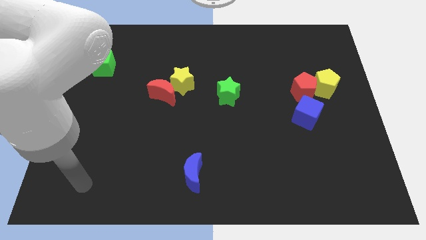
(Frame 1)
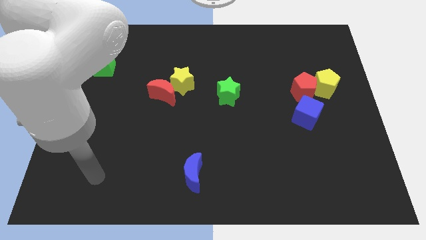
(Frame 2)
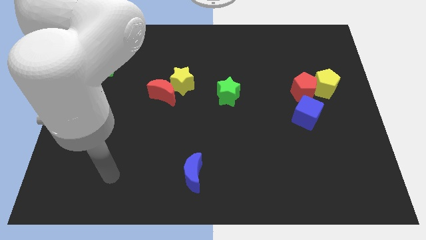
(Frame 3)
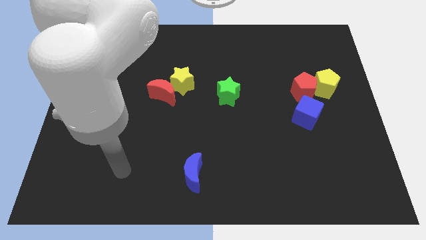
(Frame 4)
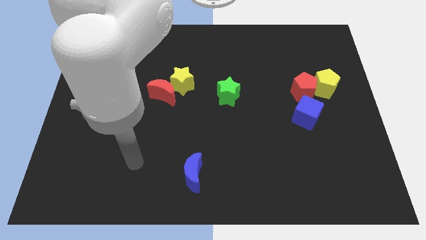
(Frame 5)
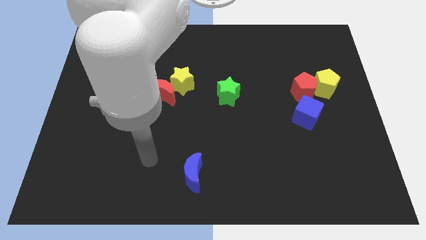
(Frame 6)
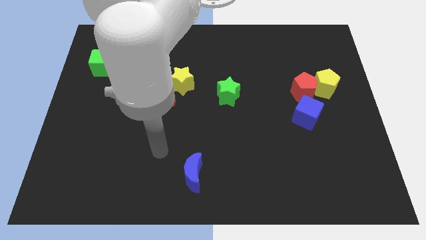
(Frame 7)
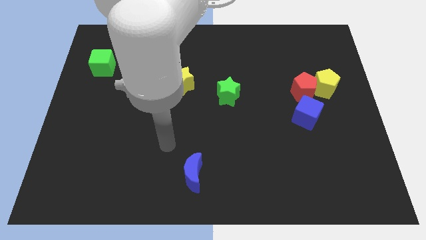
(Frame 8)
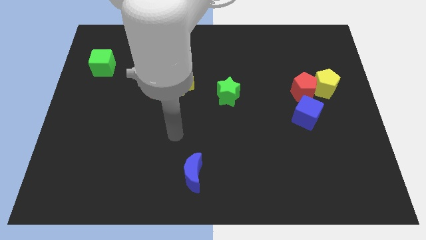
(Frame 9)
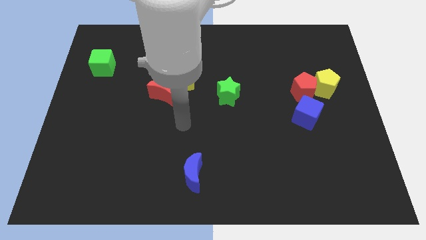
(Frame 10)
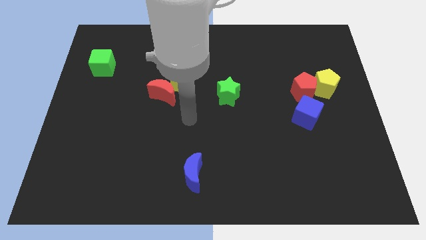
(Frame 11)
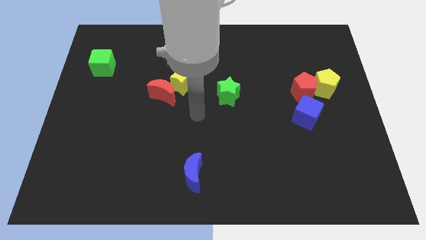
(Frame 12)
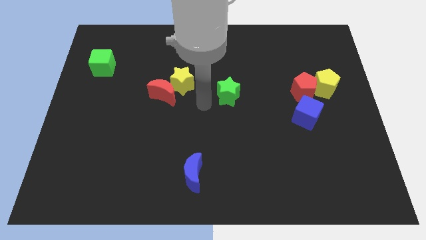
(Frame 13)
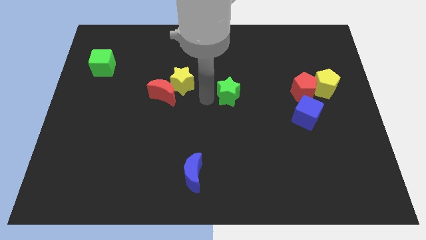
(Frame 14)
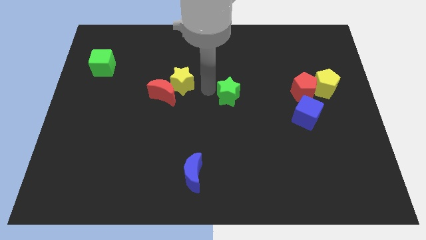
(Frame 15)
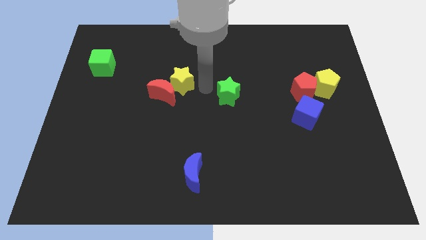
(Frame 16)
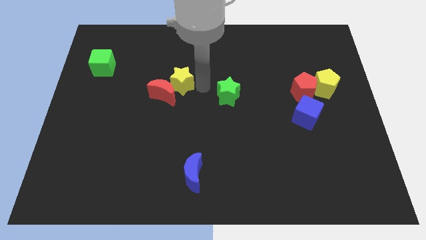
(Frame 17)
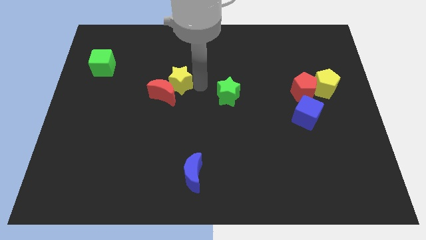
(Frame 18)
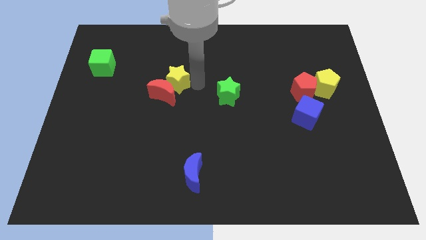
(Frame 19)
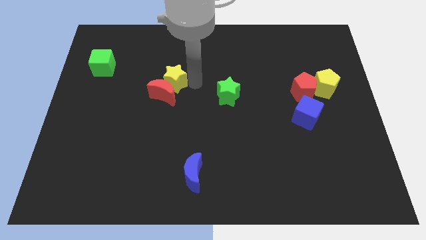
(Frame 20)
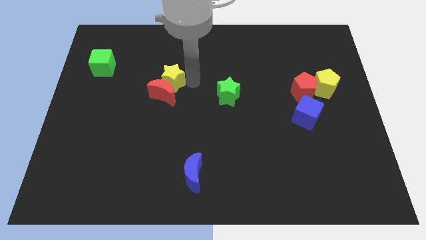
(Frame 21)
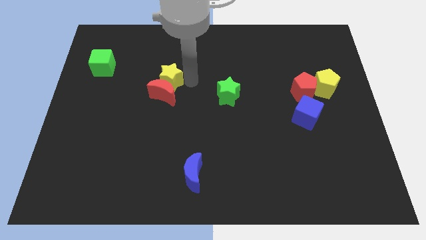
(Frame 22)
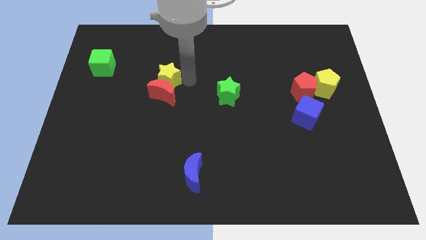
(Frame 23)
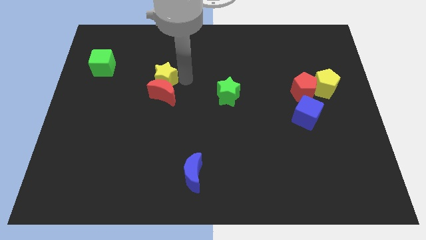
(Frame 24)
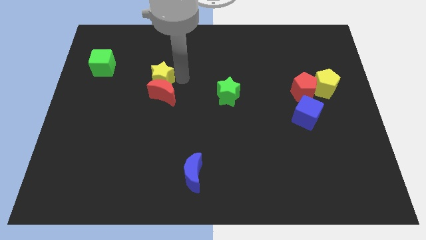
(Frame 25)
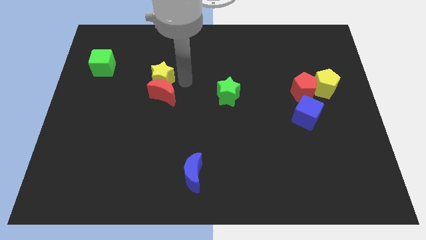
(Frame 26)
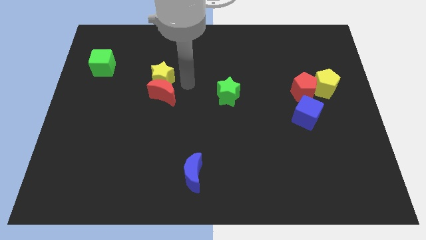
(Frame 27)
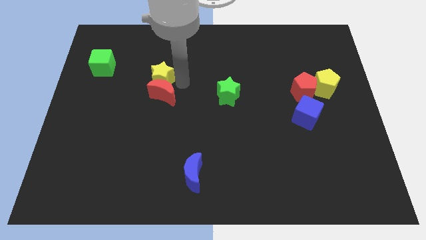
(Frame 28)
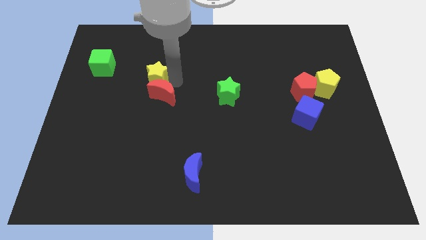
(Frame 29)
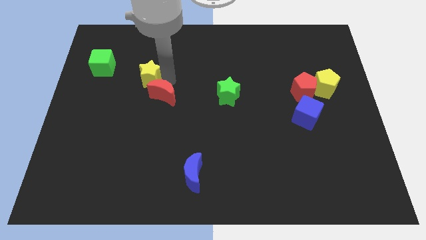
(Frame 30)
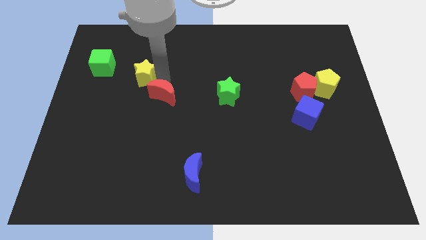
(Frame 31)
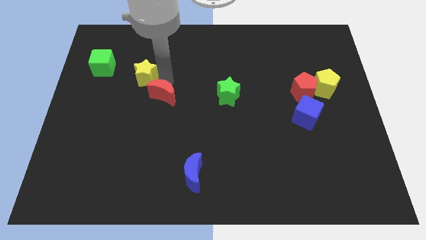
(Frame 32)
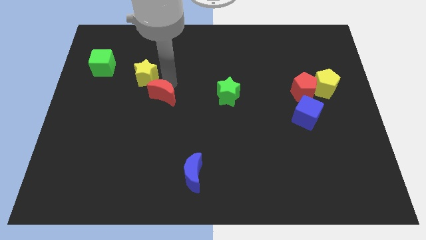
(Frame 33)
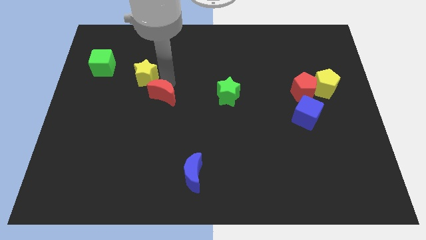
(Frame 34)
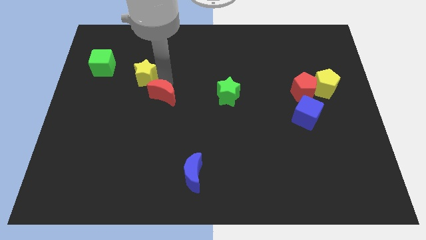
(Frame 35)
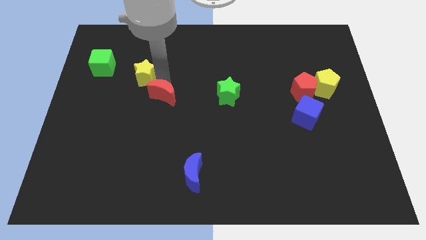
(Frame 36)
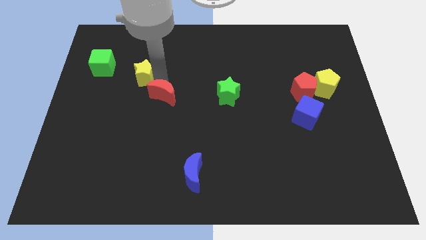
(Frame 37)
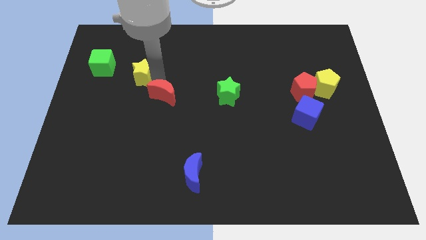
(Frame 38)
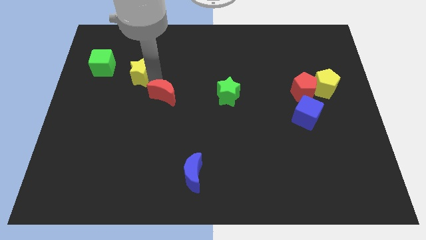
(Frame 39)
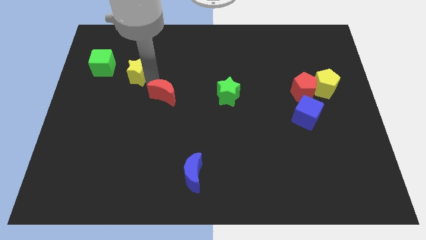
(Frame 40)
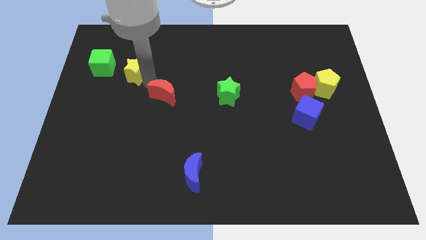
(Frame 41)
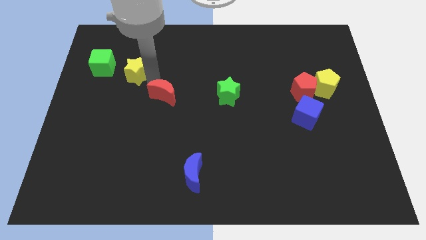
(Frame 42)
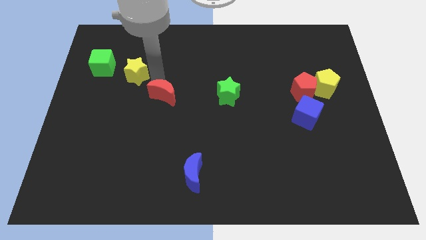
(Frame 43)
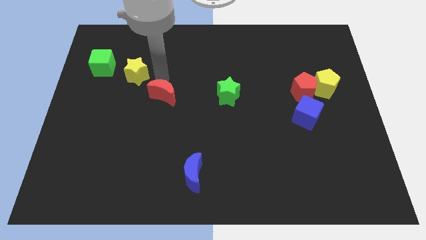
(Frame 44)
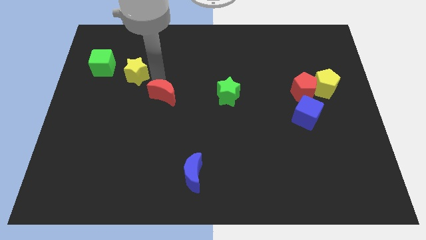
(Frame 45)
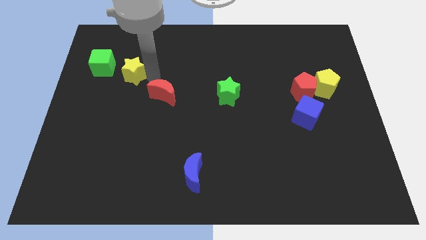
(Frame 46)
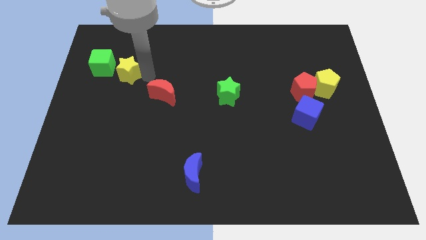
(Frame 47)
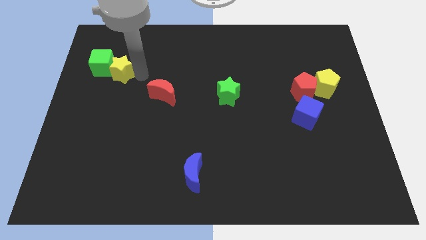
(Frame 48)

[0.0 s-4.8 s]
put the yellow star towards the green cube

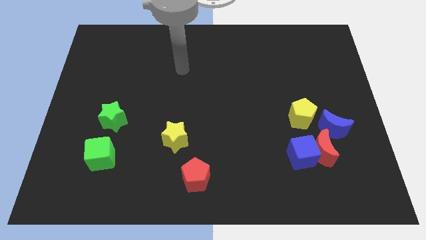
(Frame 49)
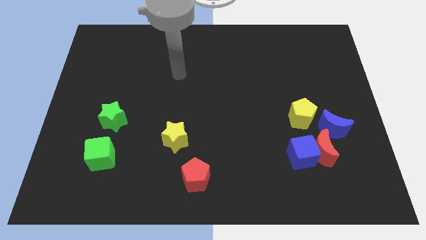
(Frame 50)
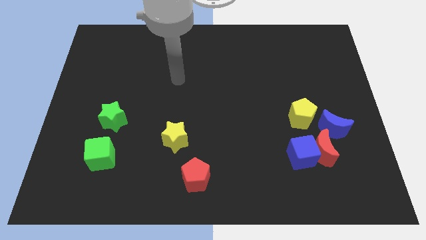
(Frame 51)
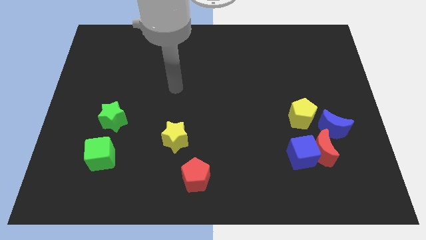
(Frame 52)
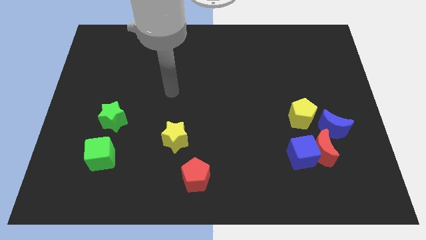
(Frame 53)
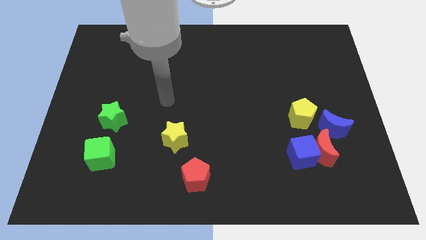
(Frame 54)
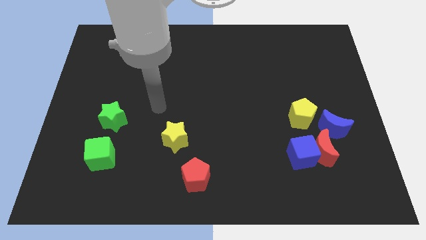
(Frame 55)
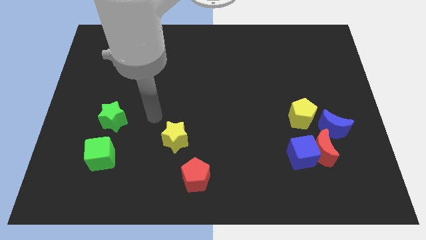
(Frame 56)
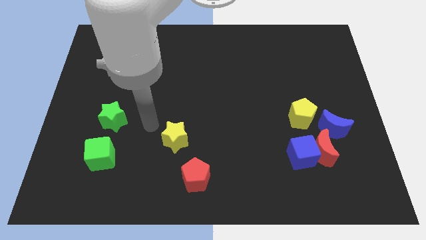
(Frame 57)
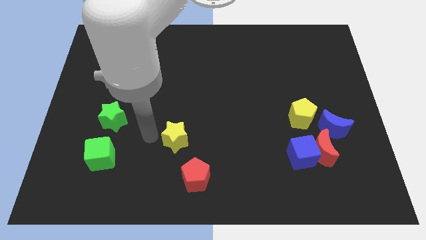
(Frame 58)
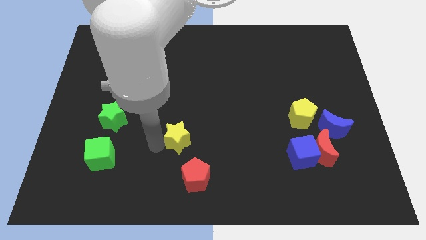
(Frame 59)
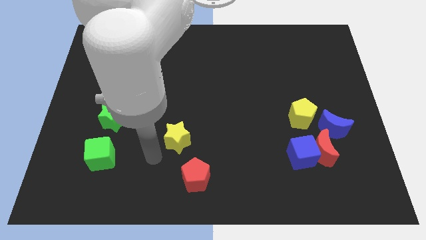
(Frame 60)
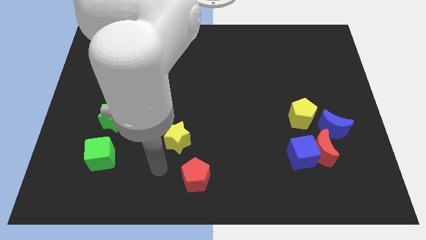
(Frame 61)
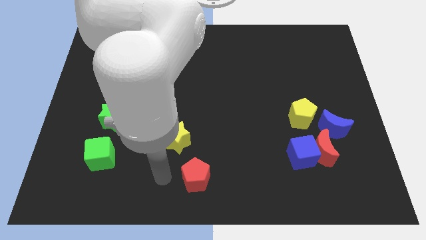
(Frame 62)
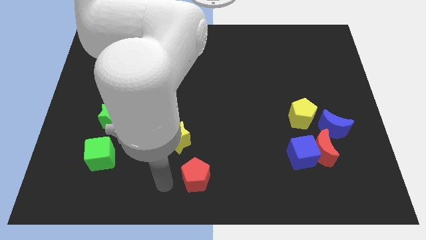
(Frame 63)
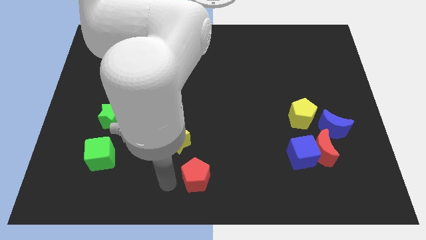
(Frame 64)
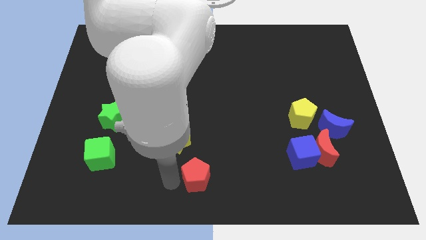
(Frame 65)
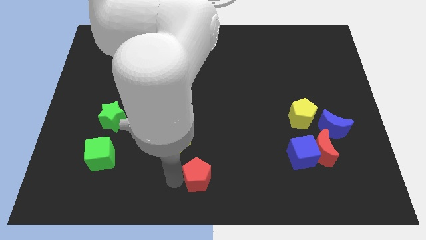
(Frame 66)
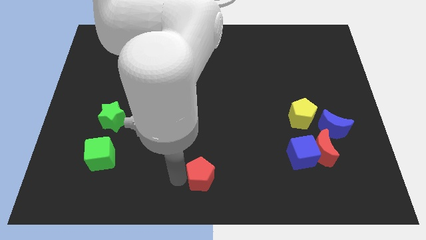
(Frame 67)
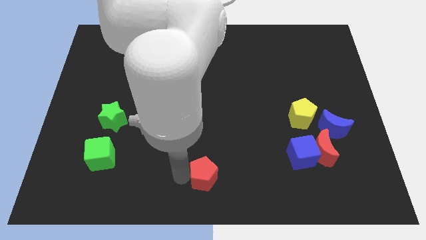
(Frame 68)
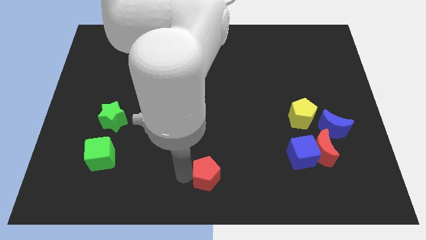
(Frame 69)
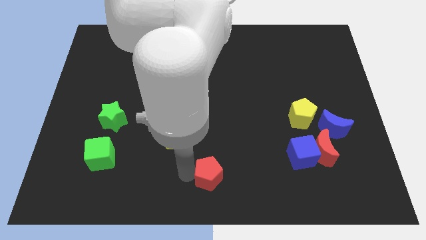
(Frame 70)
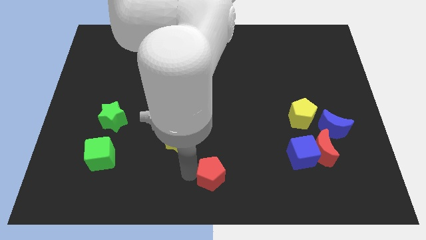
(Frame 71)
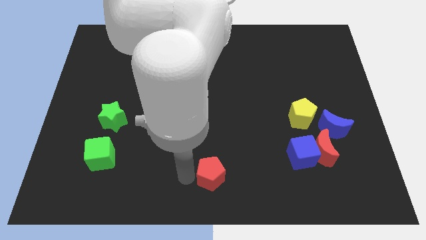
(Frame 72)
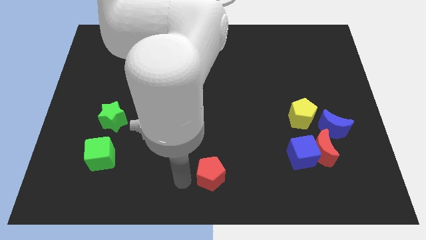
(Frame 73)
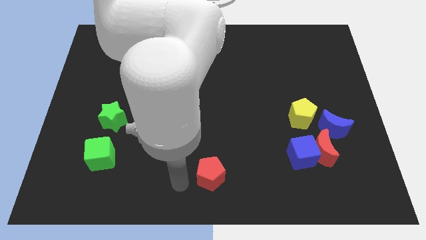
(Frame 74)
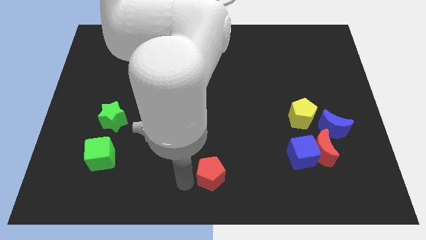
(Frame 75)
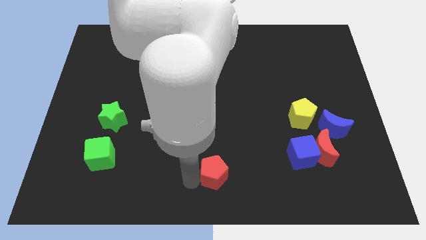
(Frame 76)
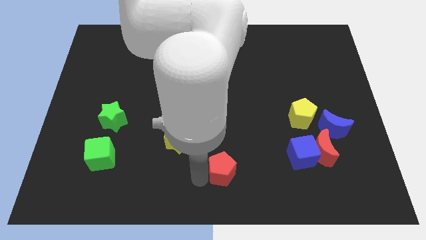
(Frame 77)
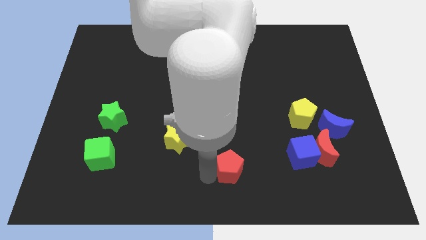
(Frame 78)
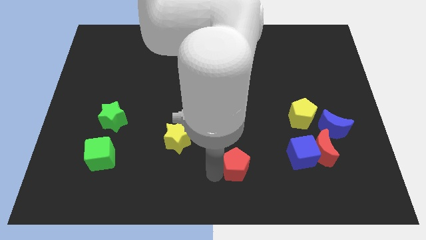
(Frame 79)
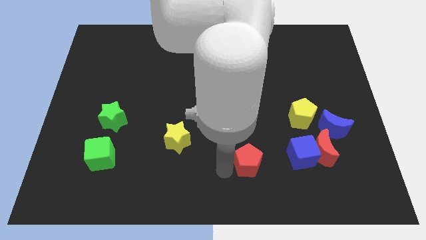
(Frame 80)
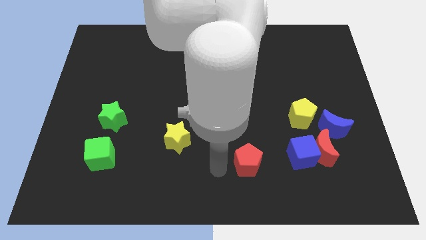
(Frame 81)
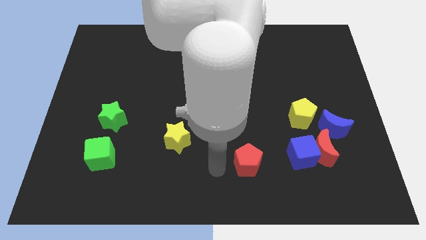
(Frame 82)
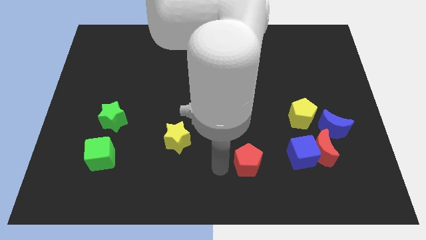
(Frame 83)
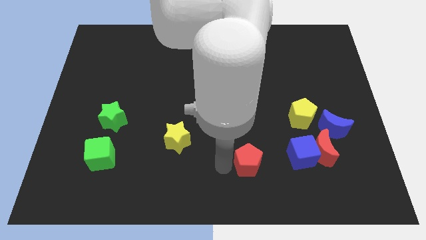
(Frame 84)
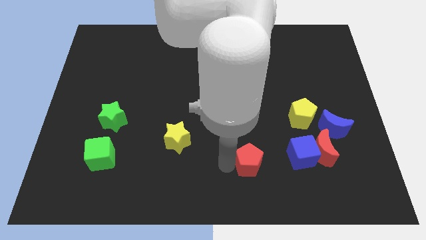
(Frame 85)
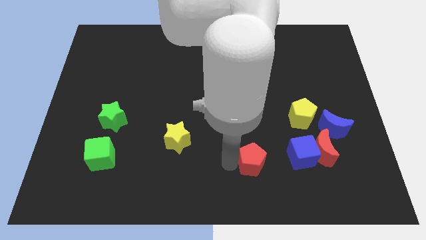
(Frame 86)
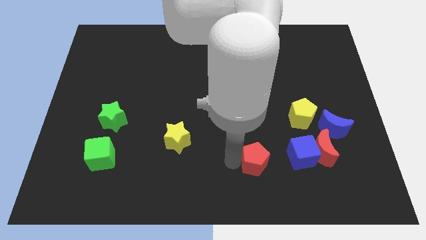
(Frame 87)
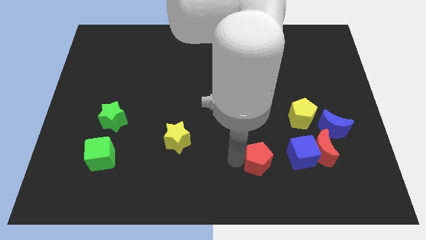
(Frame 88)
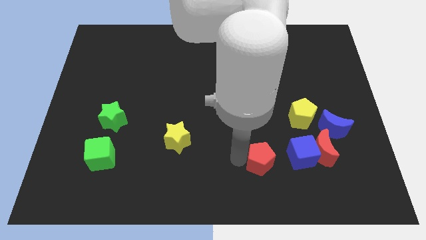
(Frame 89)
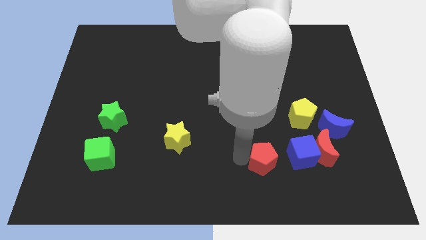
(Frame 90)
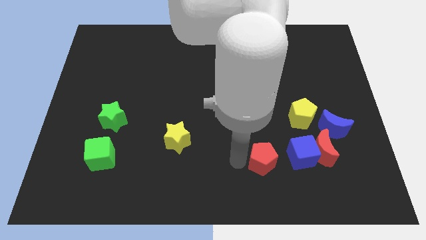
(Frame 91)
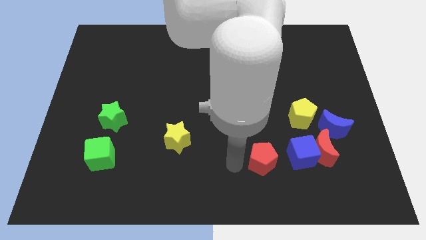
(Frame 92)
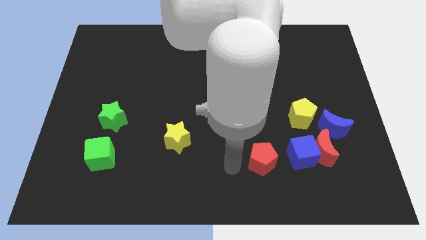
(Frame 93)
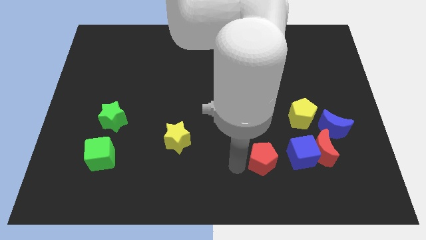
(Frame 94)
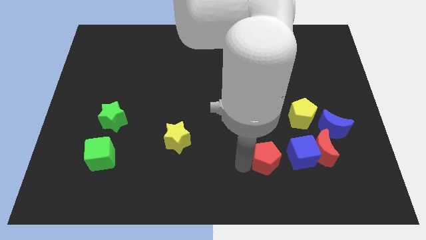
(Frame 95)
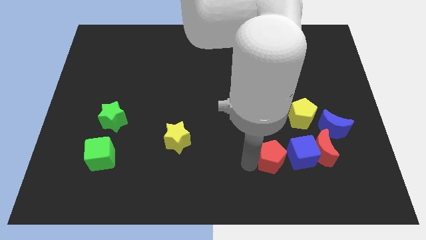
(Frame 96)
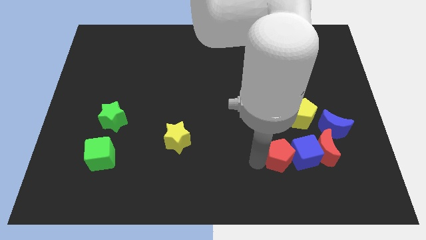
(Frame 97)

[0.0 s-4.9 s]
push the red pentagon to the blue cube
